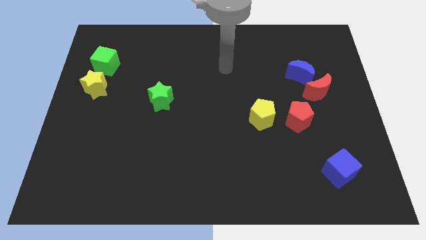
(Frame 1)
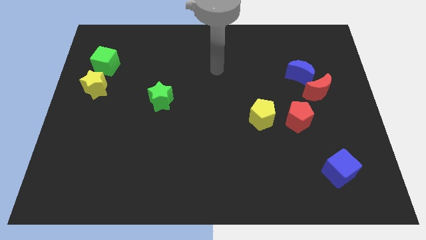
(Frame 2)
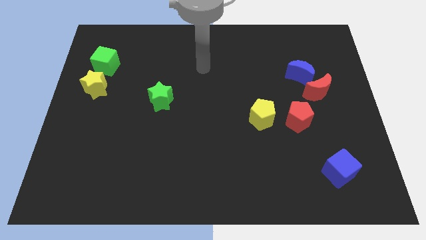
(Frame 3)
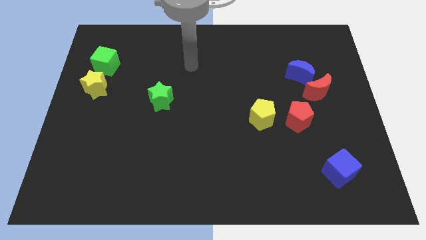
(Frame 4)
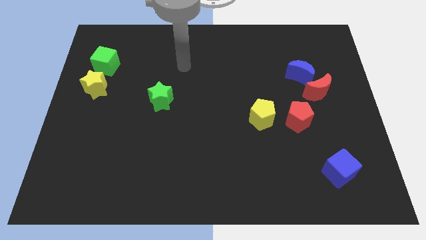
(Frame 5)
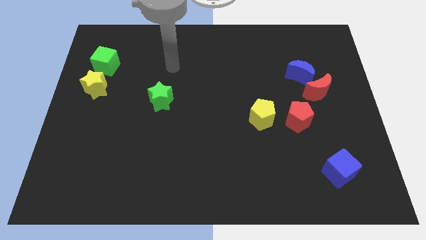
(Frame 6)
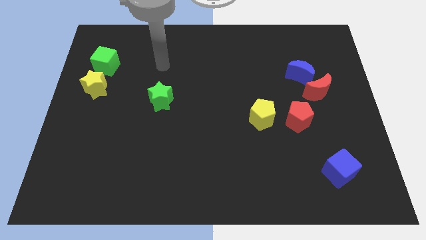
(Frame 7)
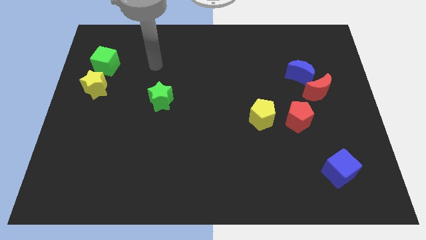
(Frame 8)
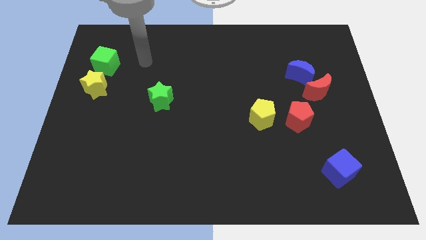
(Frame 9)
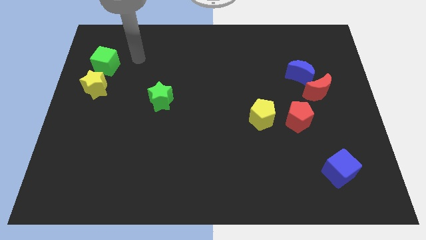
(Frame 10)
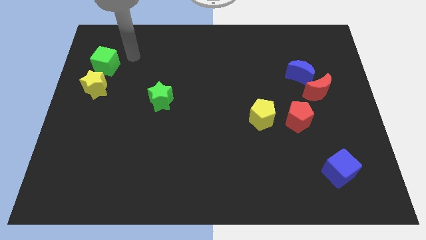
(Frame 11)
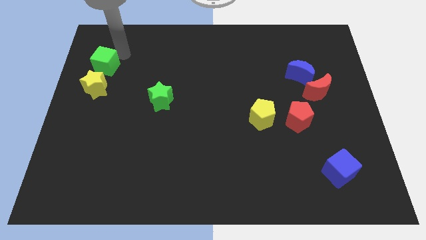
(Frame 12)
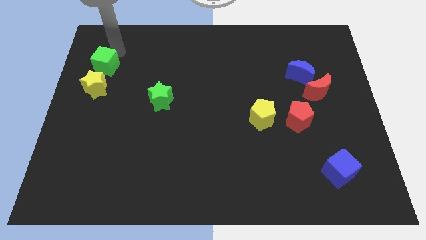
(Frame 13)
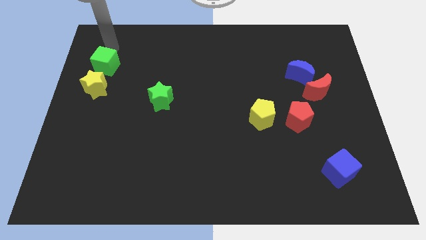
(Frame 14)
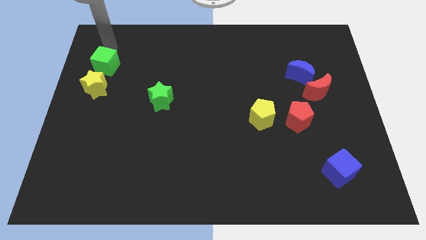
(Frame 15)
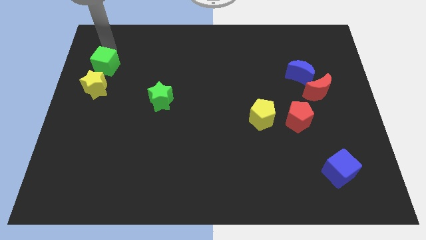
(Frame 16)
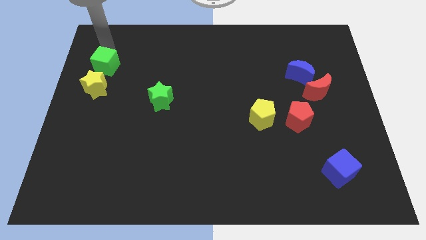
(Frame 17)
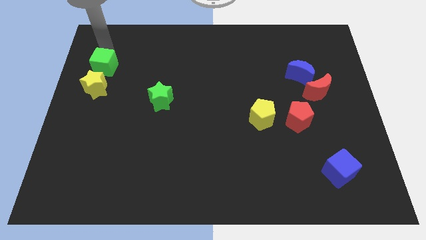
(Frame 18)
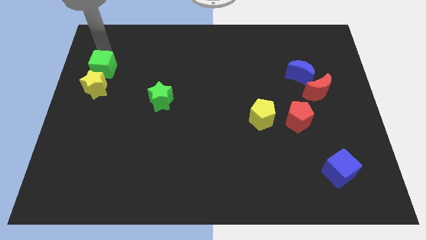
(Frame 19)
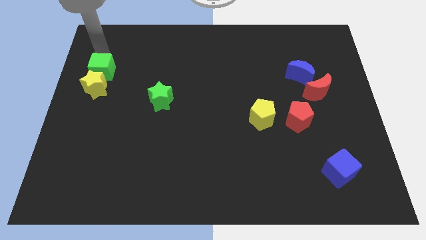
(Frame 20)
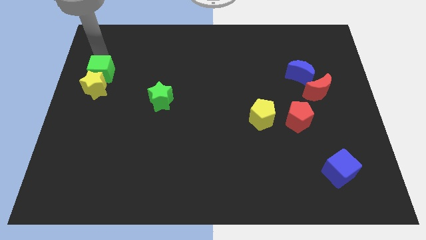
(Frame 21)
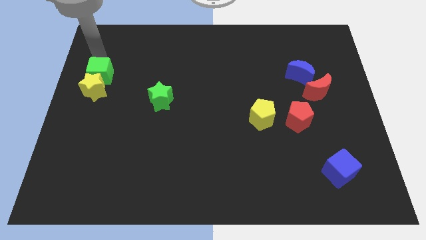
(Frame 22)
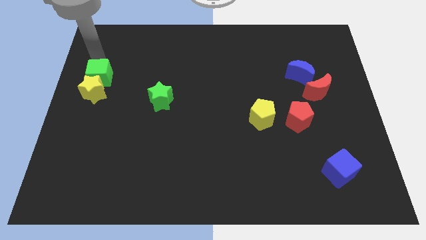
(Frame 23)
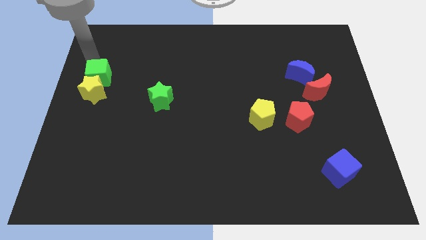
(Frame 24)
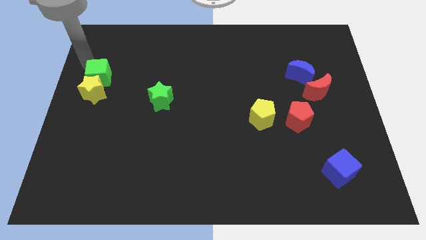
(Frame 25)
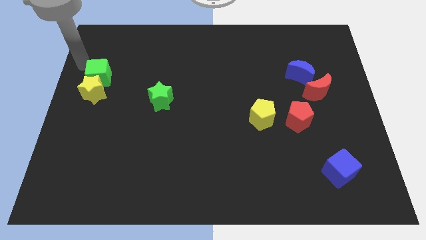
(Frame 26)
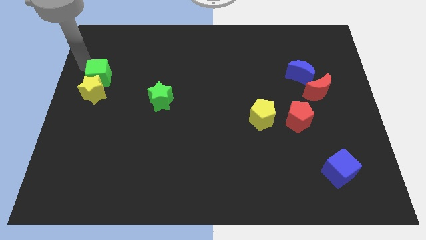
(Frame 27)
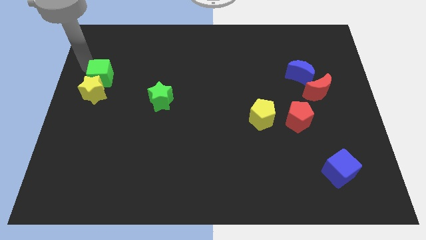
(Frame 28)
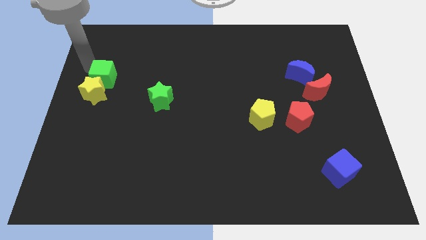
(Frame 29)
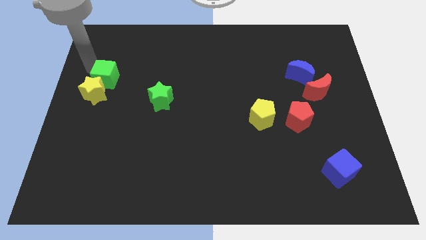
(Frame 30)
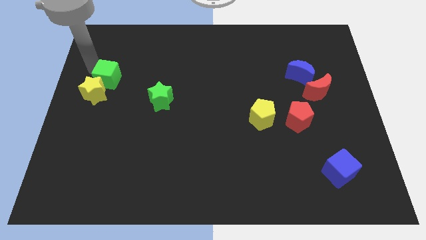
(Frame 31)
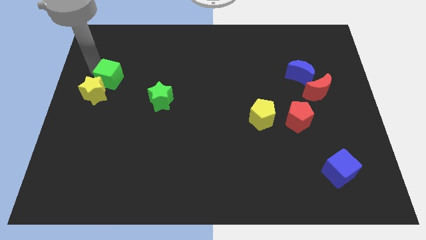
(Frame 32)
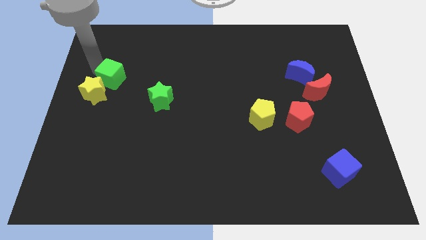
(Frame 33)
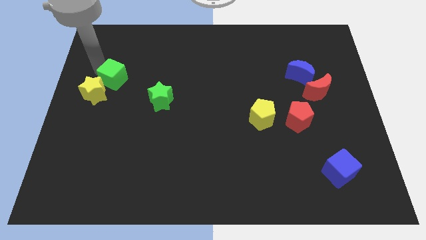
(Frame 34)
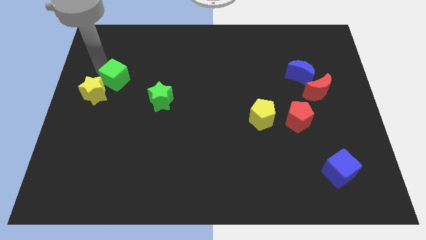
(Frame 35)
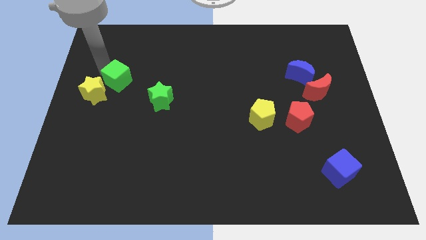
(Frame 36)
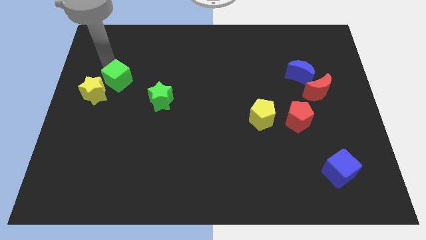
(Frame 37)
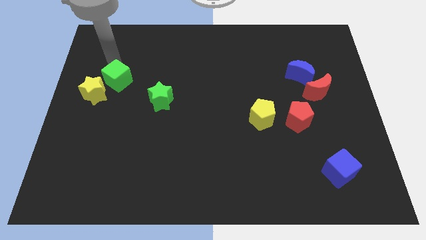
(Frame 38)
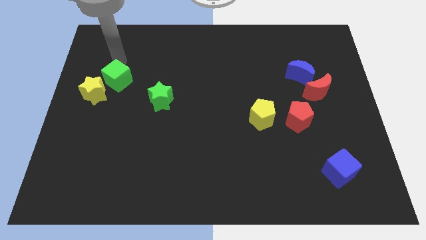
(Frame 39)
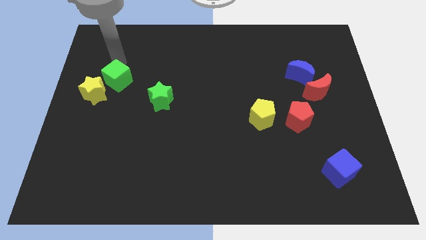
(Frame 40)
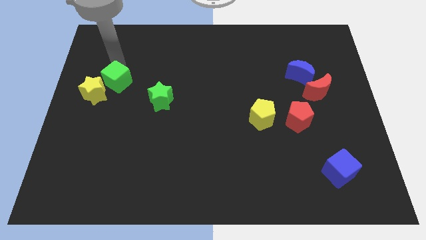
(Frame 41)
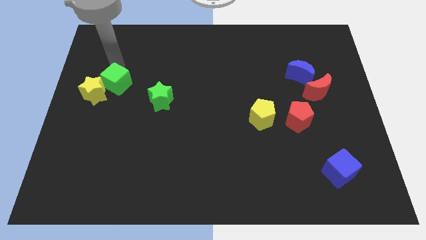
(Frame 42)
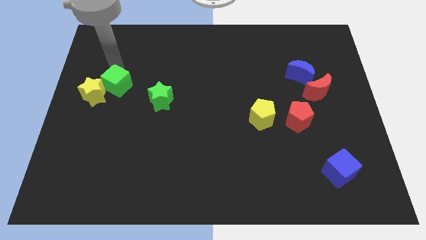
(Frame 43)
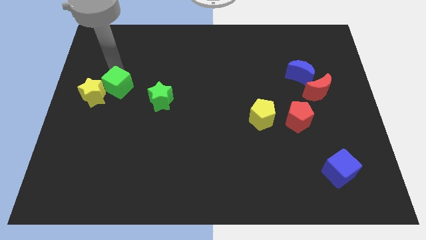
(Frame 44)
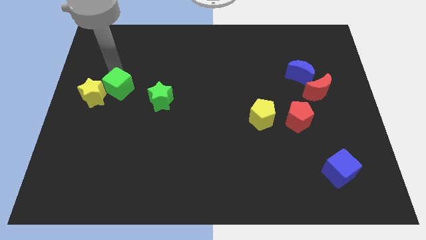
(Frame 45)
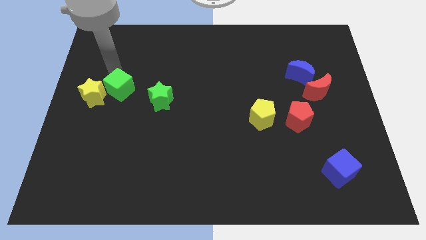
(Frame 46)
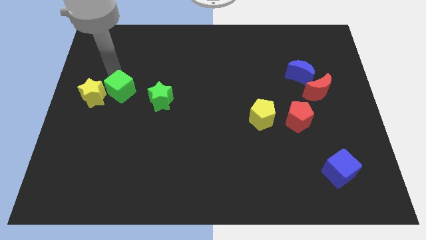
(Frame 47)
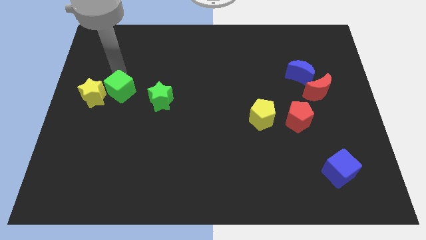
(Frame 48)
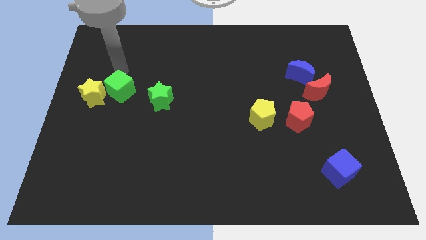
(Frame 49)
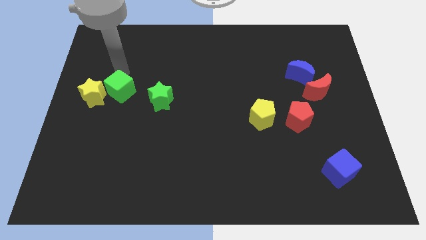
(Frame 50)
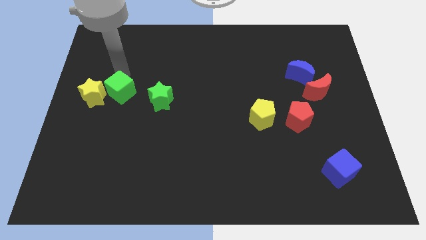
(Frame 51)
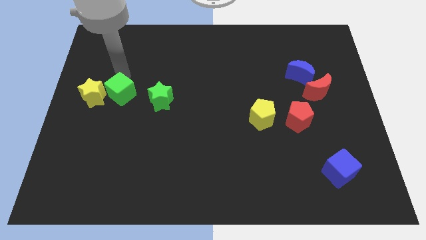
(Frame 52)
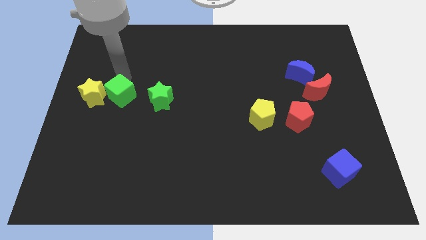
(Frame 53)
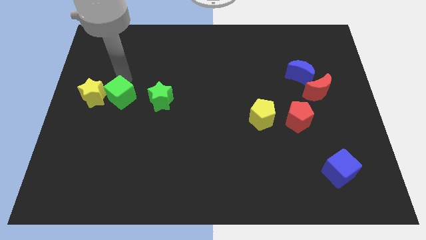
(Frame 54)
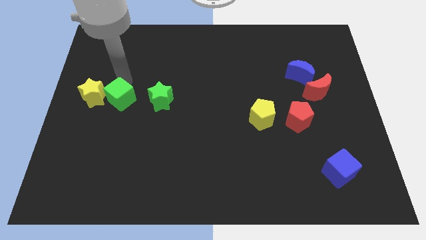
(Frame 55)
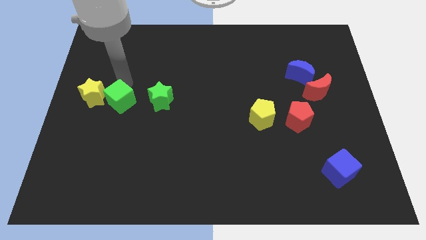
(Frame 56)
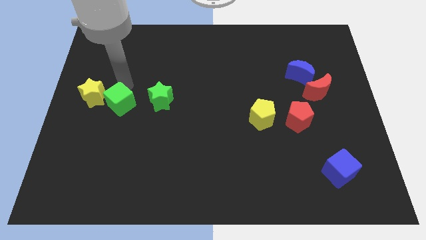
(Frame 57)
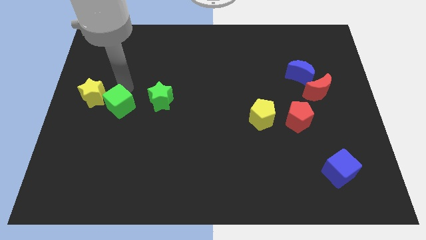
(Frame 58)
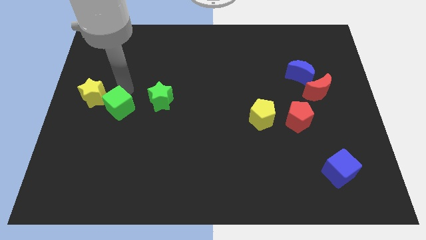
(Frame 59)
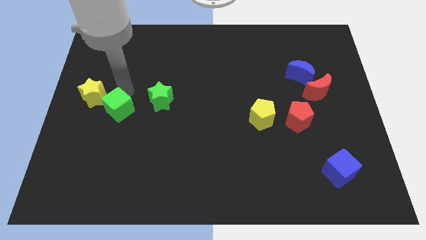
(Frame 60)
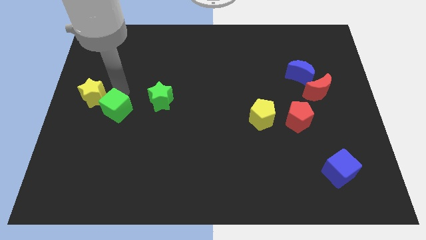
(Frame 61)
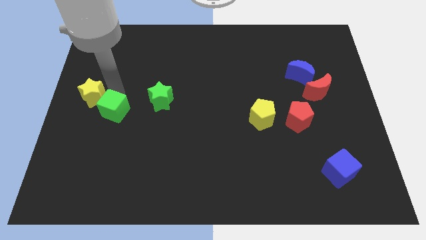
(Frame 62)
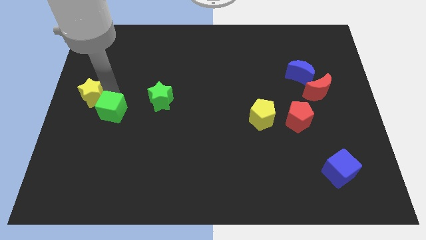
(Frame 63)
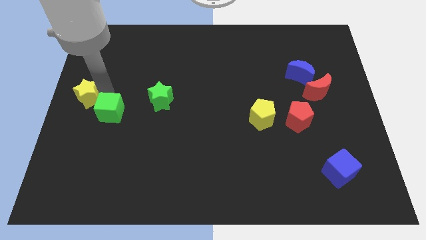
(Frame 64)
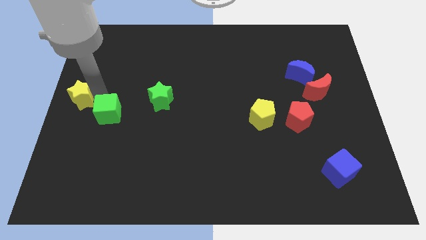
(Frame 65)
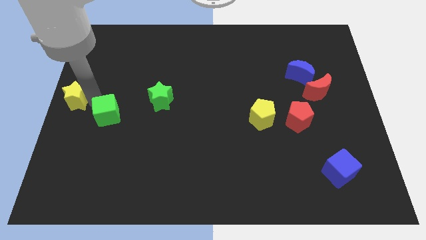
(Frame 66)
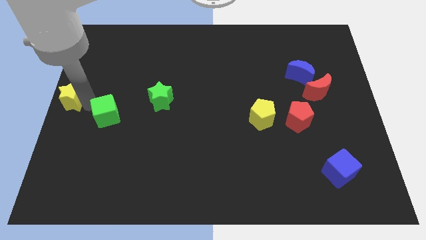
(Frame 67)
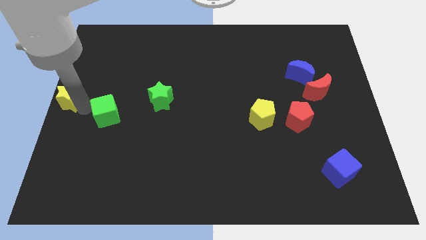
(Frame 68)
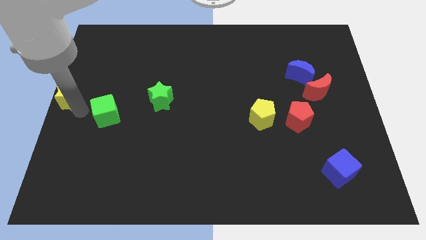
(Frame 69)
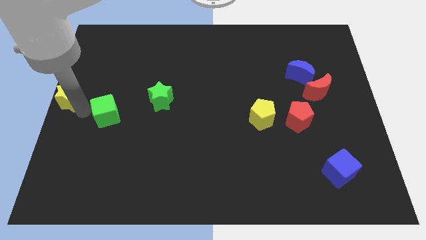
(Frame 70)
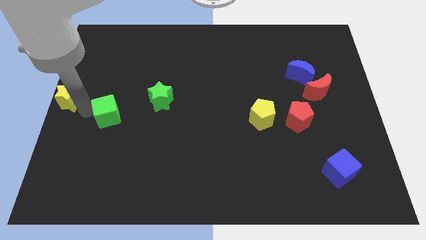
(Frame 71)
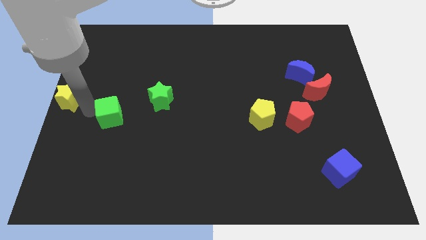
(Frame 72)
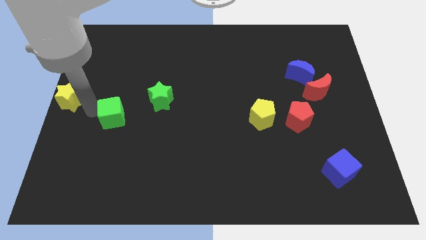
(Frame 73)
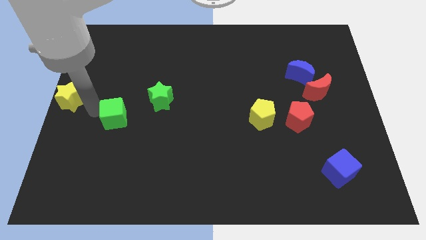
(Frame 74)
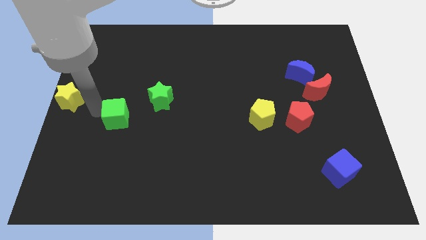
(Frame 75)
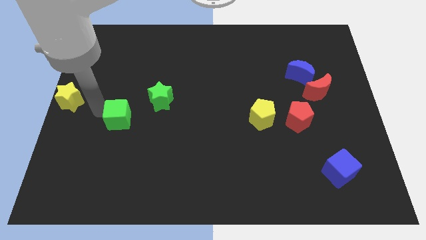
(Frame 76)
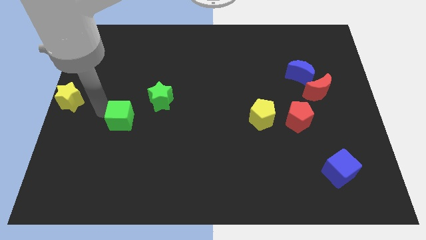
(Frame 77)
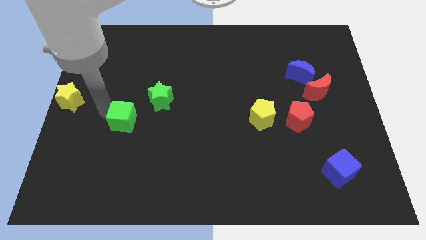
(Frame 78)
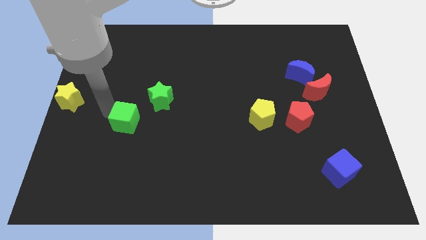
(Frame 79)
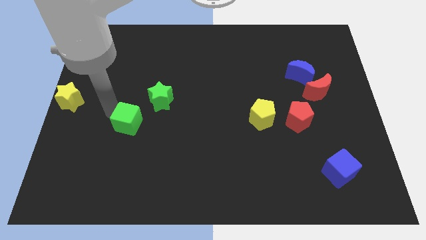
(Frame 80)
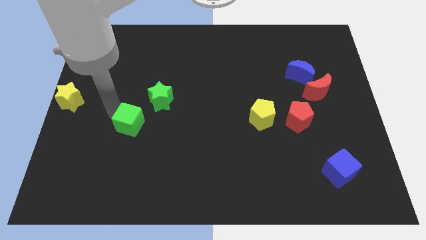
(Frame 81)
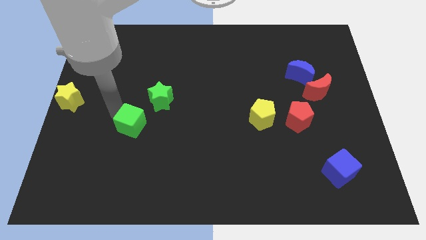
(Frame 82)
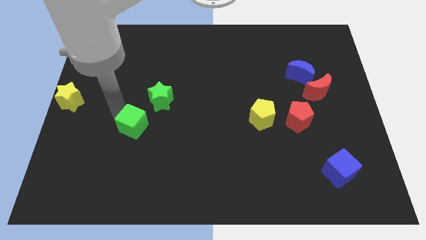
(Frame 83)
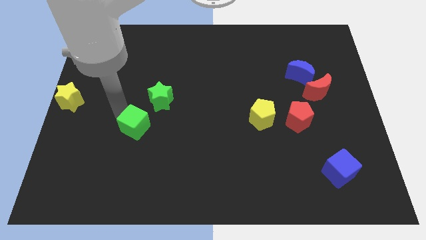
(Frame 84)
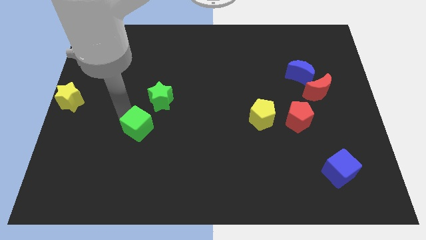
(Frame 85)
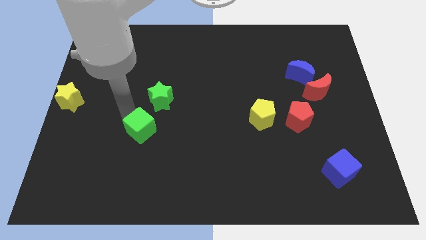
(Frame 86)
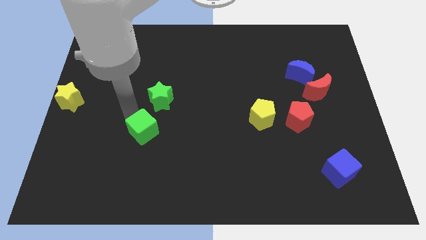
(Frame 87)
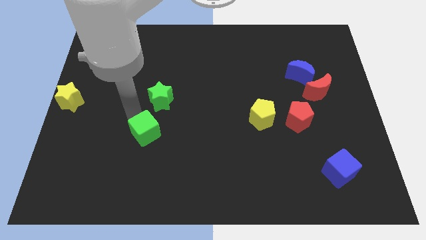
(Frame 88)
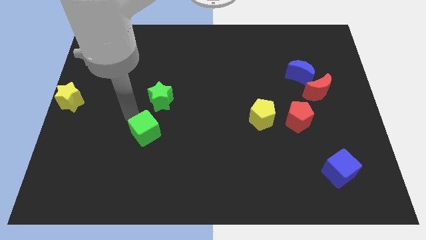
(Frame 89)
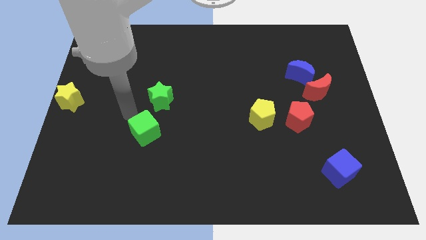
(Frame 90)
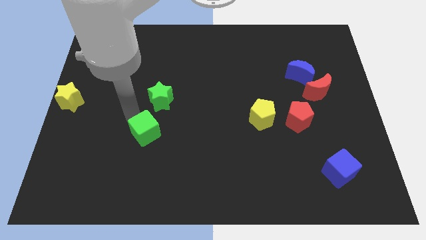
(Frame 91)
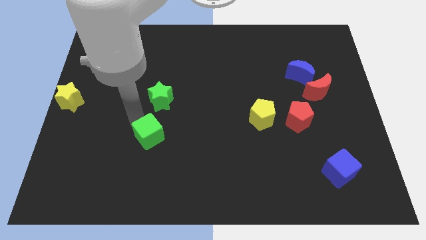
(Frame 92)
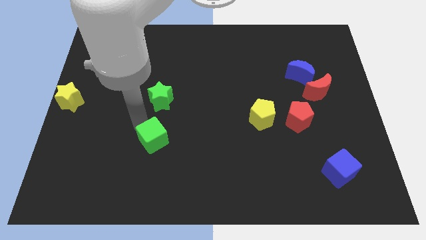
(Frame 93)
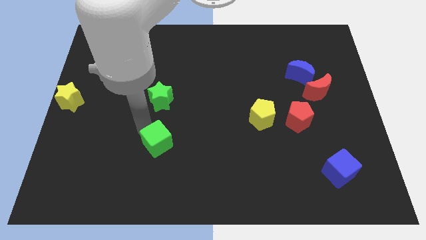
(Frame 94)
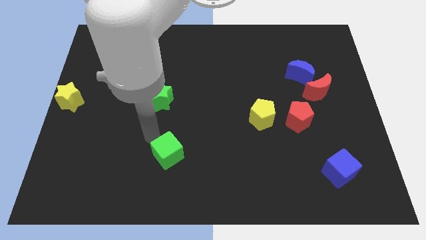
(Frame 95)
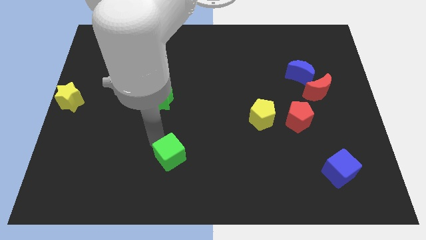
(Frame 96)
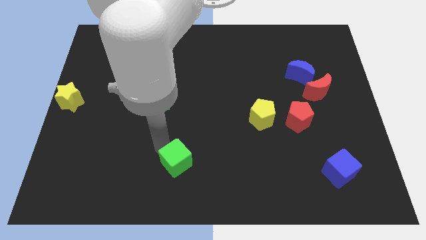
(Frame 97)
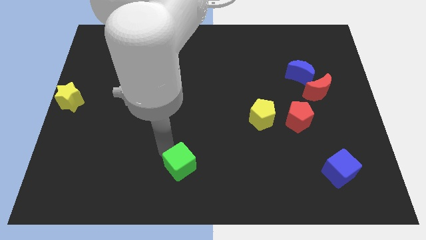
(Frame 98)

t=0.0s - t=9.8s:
move the green cube to the bottom side
